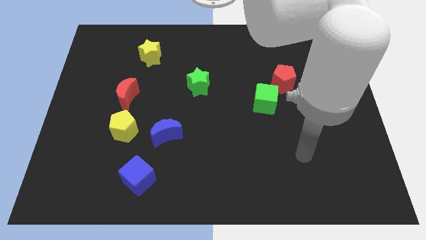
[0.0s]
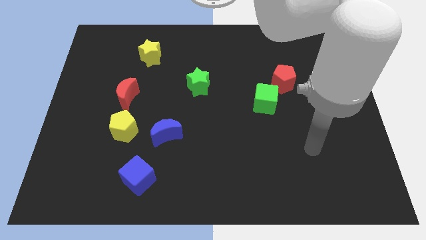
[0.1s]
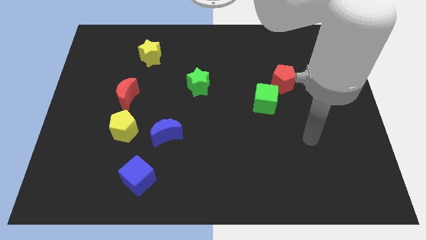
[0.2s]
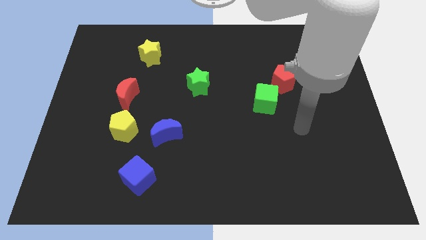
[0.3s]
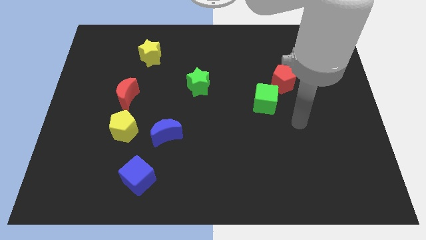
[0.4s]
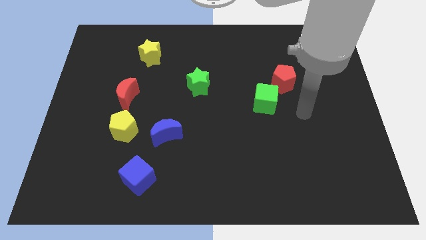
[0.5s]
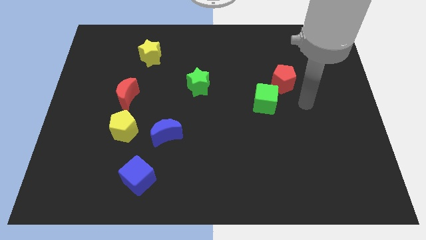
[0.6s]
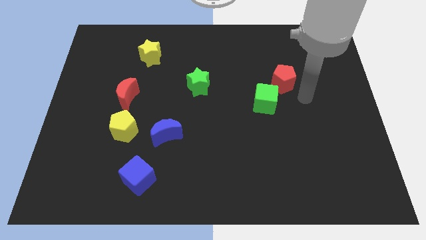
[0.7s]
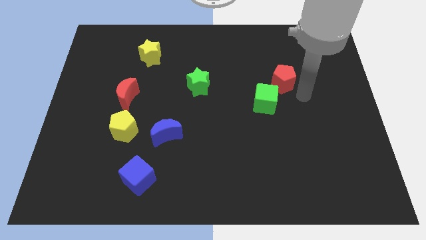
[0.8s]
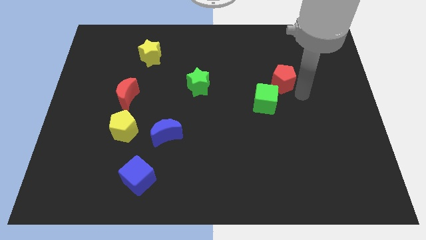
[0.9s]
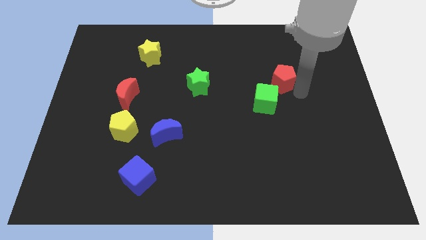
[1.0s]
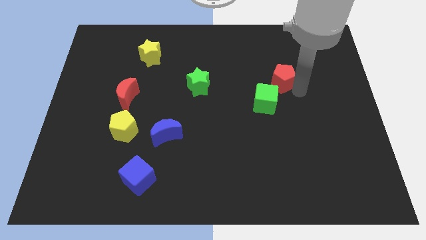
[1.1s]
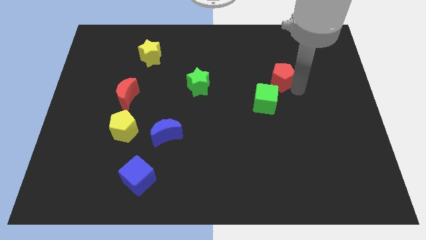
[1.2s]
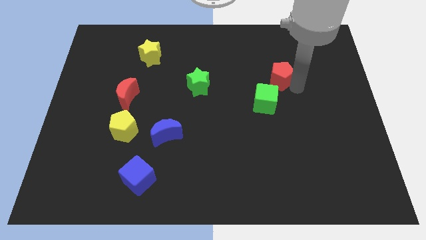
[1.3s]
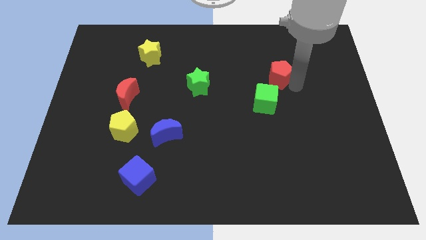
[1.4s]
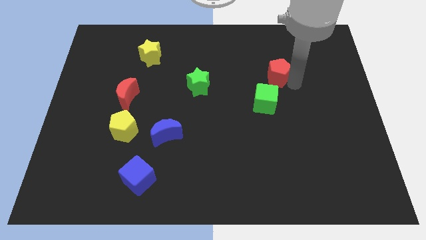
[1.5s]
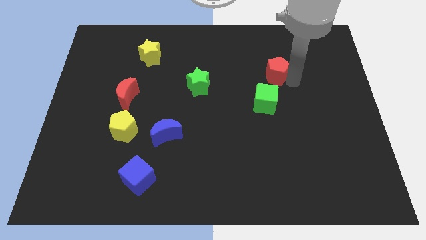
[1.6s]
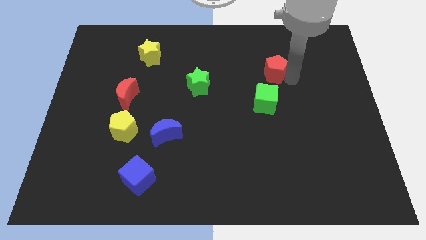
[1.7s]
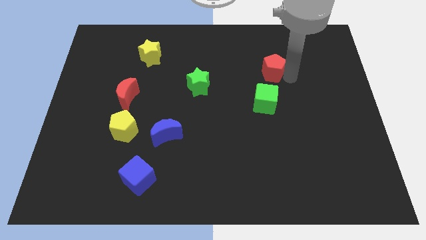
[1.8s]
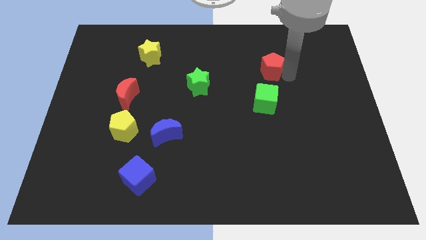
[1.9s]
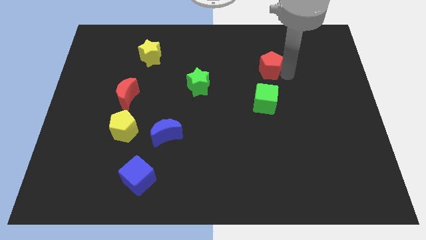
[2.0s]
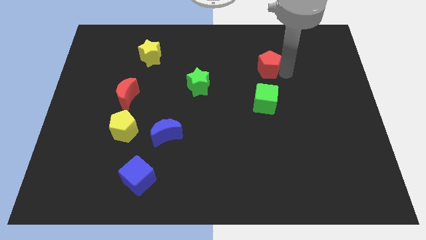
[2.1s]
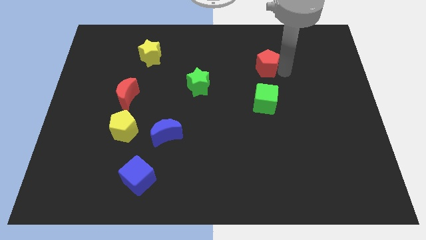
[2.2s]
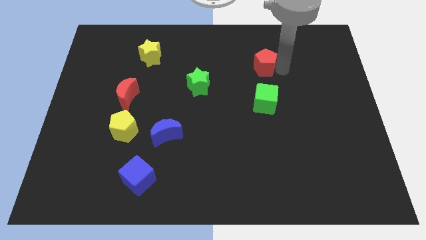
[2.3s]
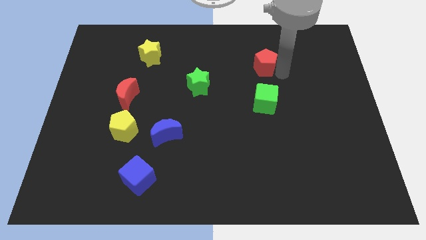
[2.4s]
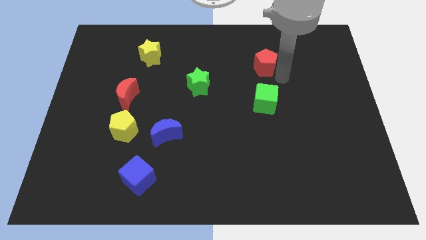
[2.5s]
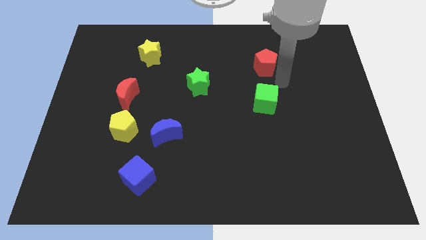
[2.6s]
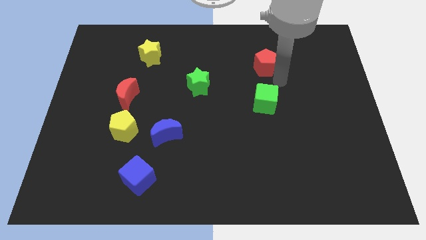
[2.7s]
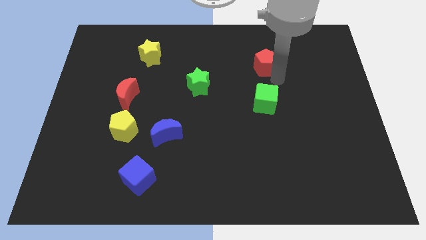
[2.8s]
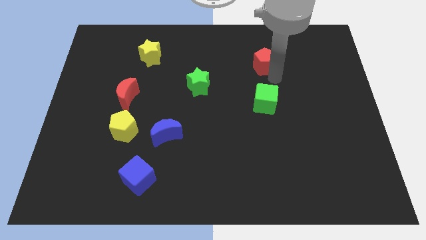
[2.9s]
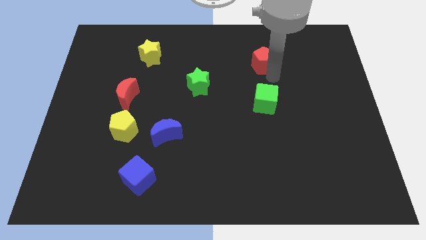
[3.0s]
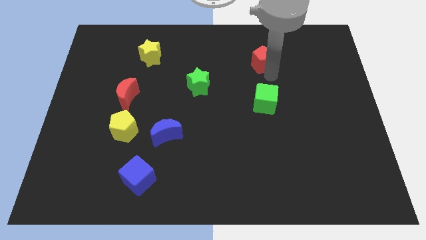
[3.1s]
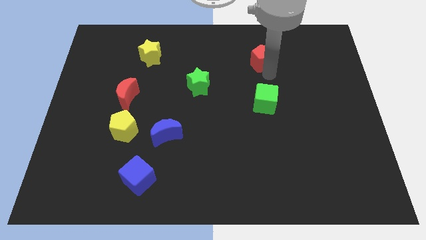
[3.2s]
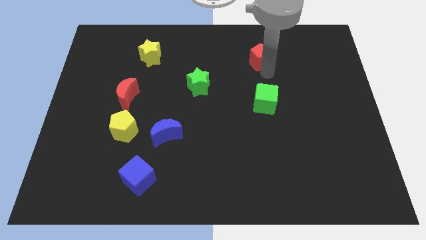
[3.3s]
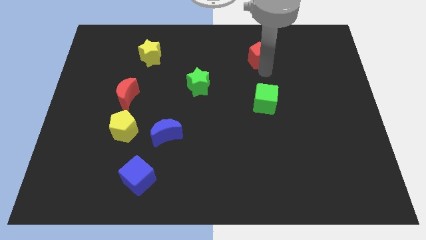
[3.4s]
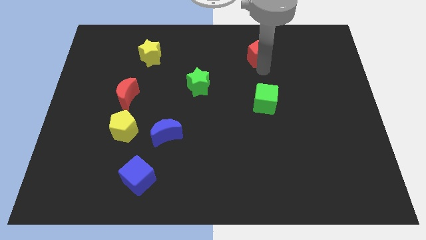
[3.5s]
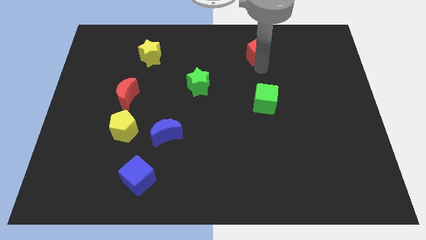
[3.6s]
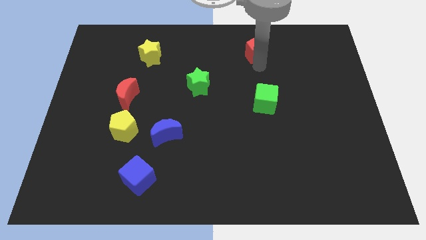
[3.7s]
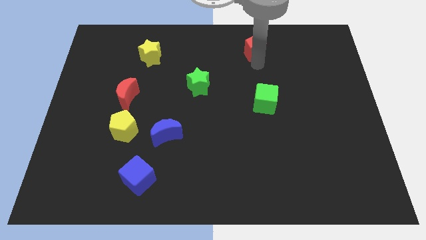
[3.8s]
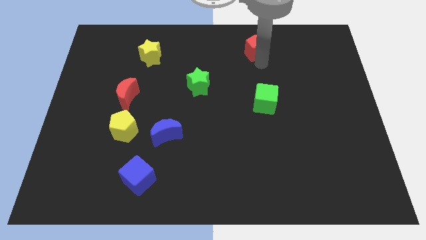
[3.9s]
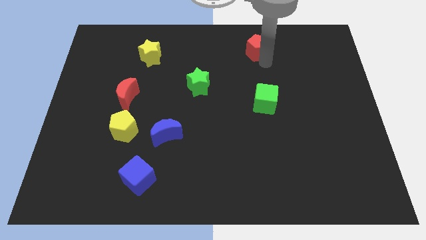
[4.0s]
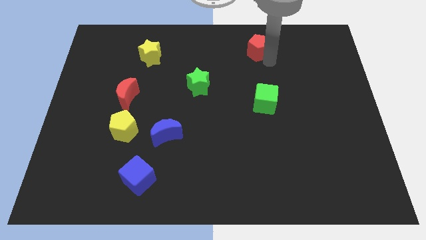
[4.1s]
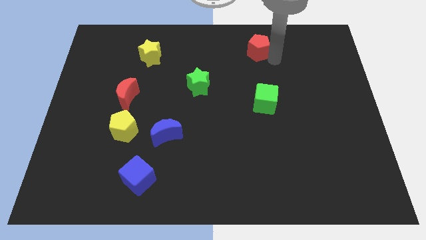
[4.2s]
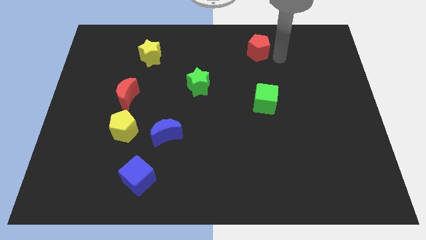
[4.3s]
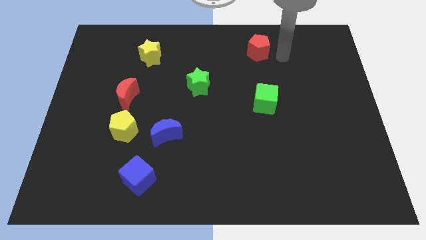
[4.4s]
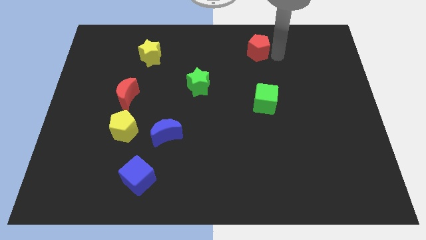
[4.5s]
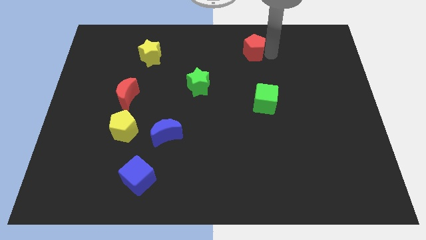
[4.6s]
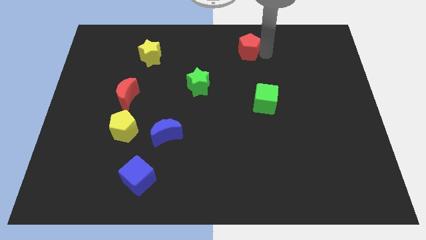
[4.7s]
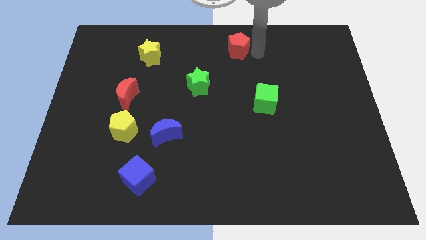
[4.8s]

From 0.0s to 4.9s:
move the red pentagon to the top side

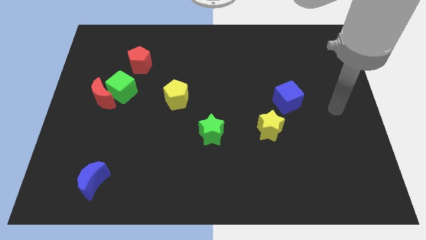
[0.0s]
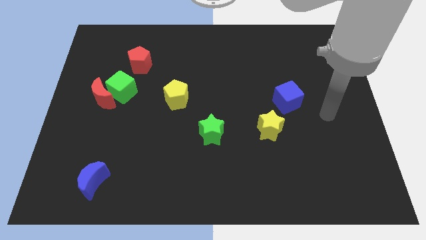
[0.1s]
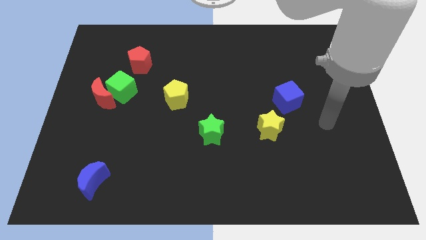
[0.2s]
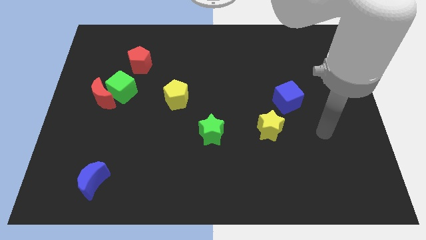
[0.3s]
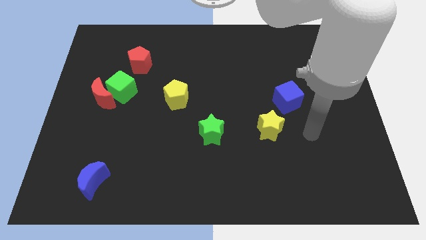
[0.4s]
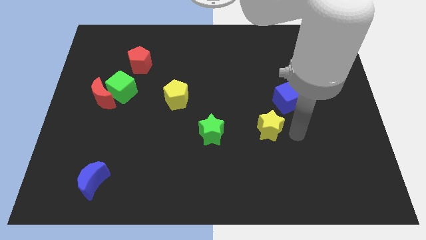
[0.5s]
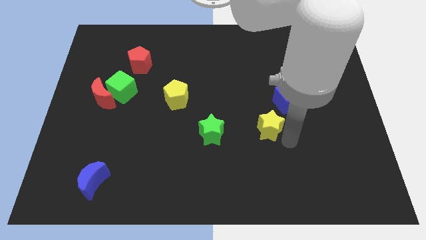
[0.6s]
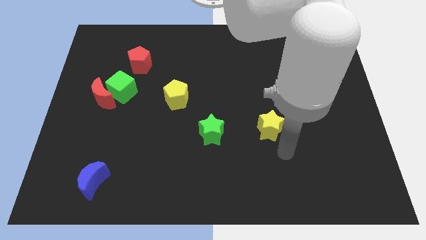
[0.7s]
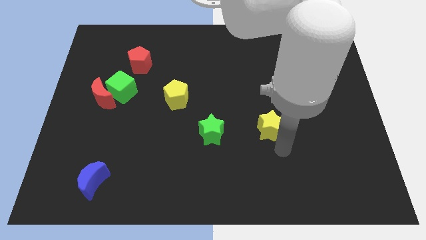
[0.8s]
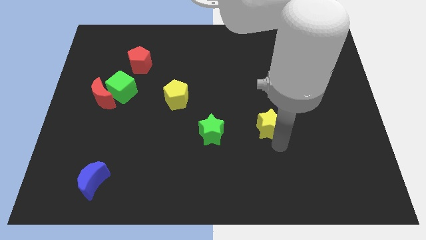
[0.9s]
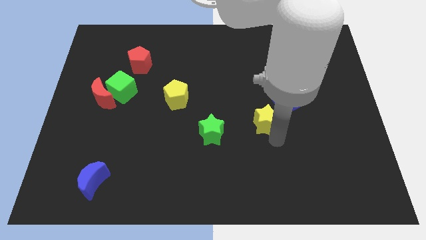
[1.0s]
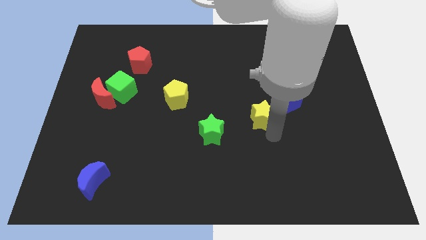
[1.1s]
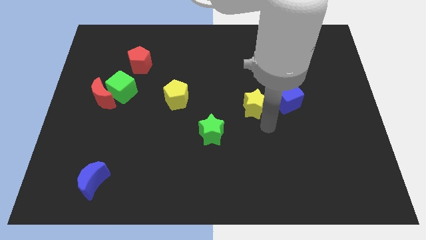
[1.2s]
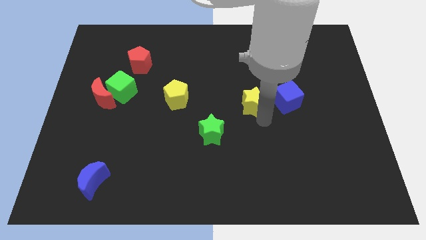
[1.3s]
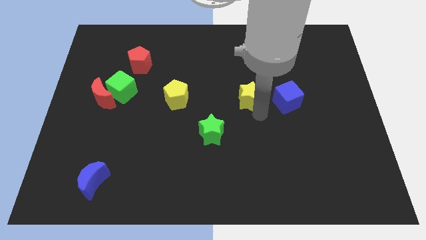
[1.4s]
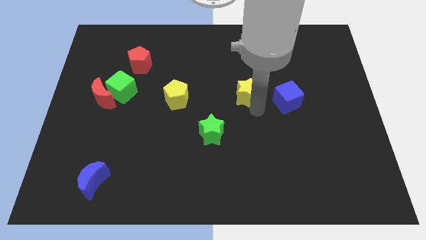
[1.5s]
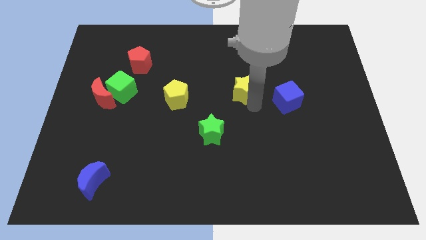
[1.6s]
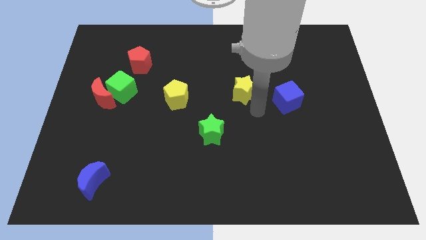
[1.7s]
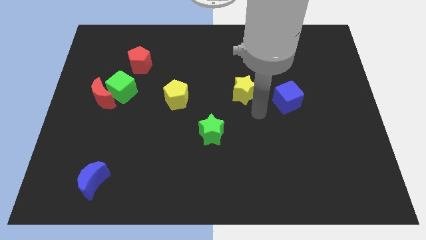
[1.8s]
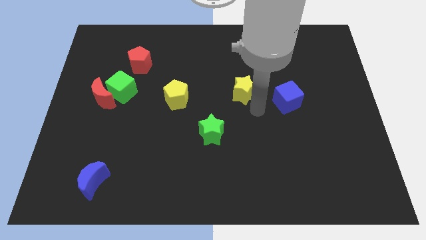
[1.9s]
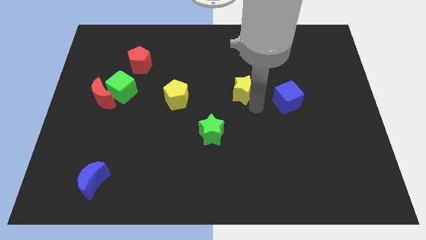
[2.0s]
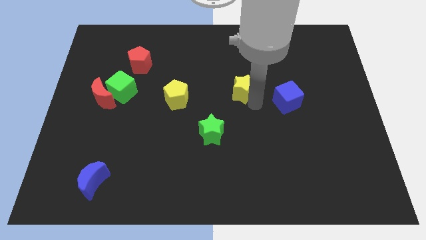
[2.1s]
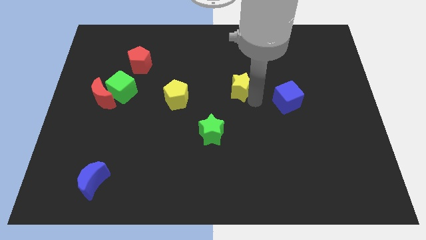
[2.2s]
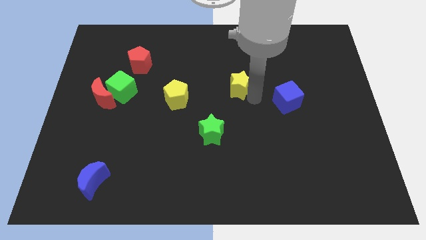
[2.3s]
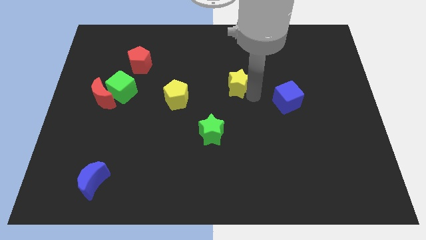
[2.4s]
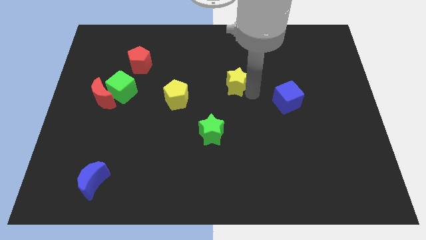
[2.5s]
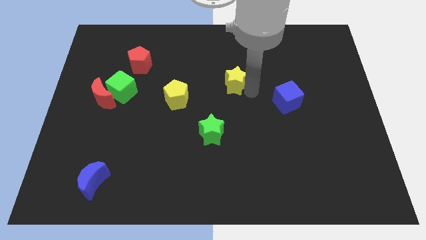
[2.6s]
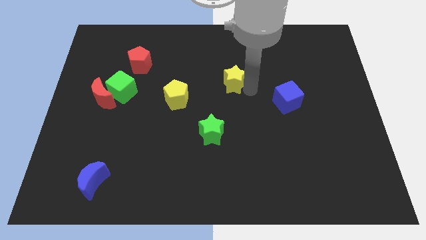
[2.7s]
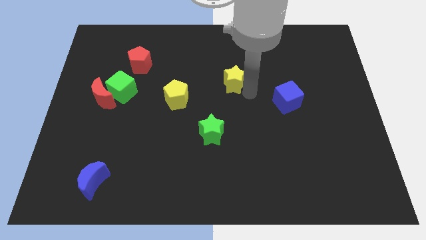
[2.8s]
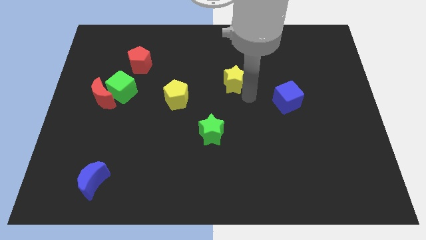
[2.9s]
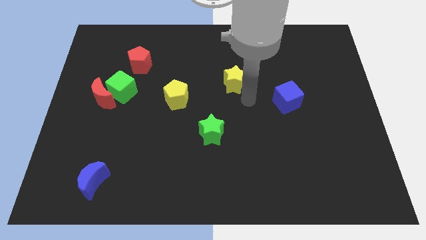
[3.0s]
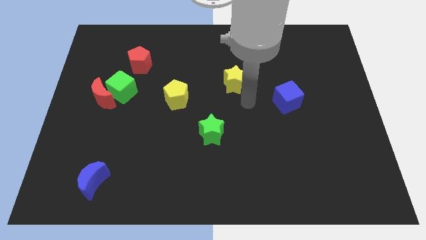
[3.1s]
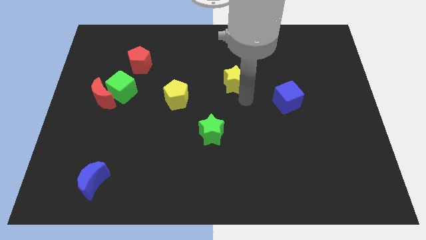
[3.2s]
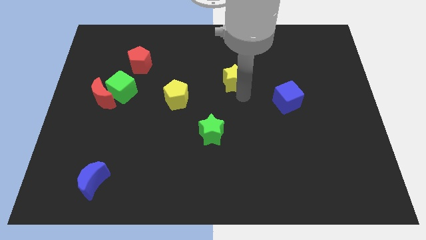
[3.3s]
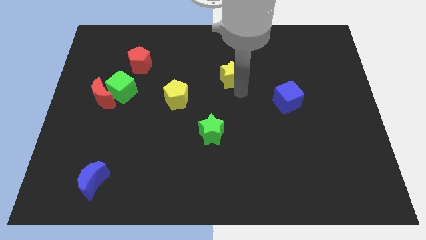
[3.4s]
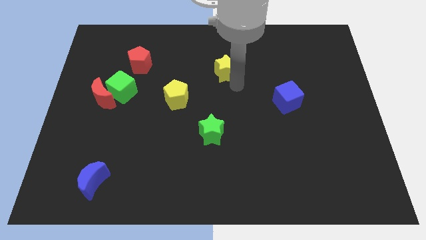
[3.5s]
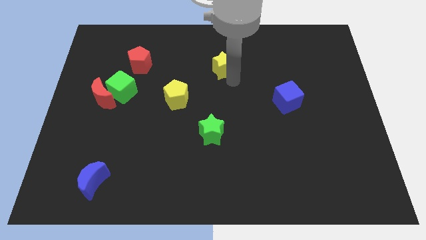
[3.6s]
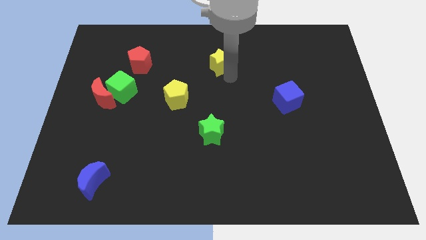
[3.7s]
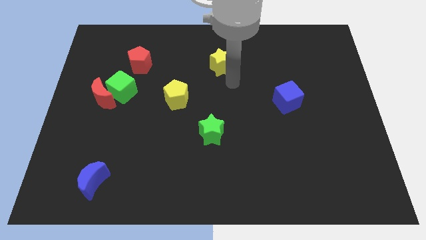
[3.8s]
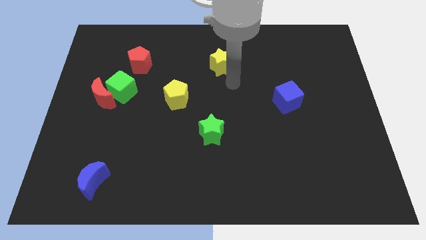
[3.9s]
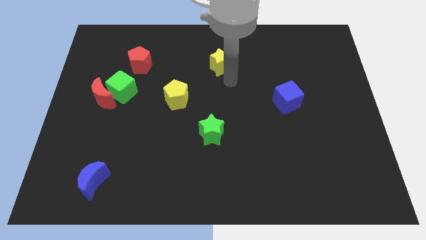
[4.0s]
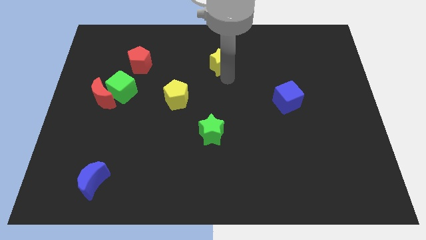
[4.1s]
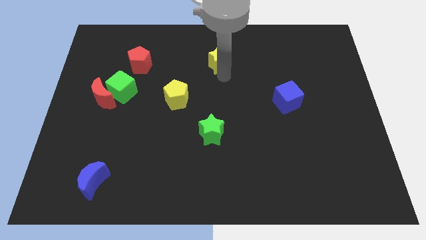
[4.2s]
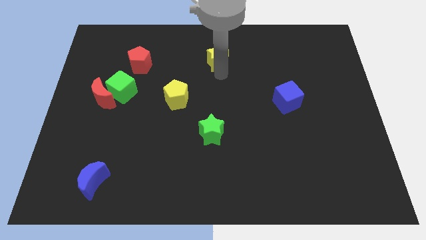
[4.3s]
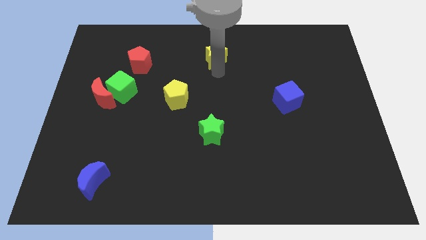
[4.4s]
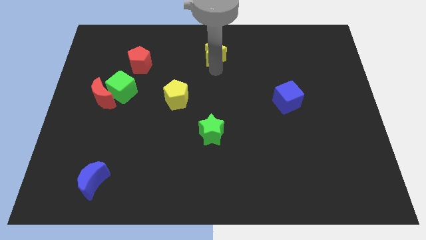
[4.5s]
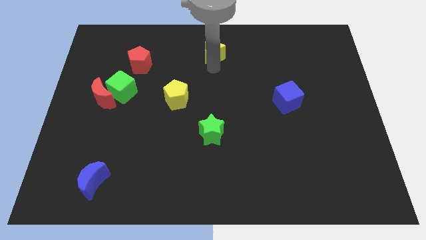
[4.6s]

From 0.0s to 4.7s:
move the yellow star to the towards your base
